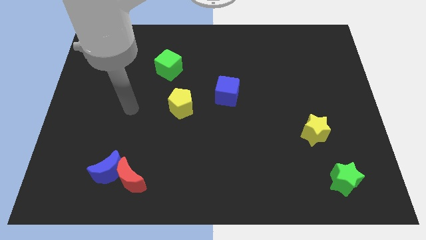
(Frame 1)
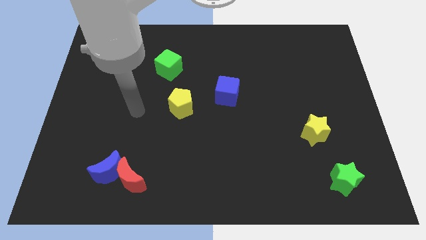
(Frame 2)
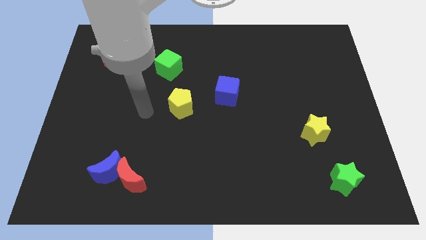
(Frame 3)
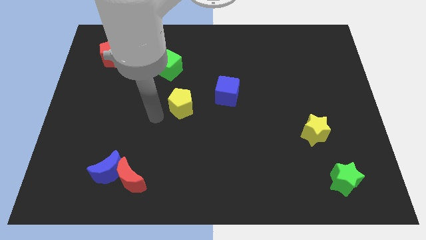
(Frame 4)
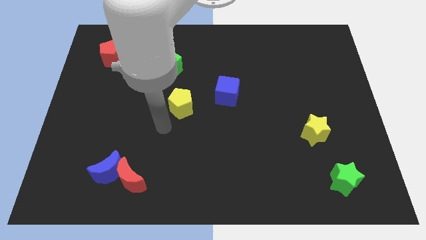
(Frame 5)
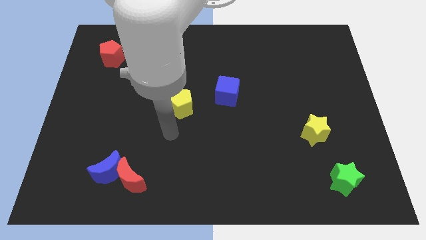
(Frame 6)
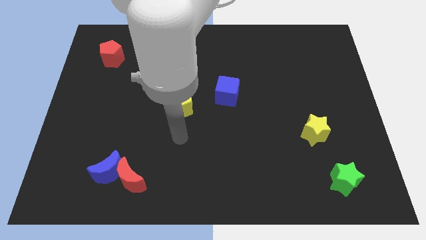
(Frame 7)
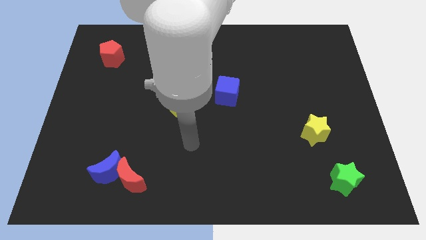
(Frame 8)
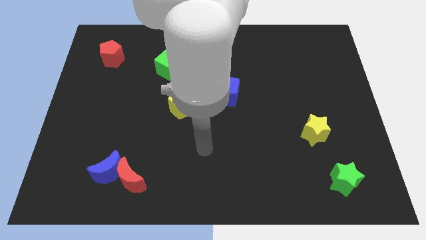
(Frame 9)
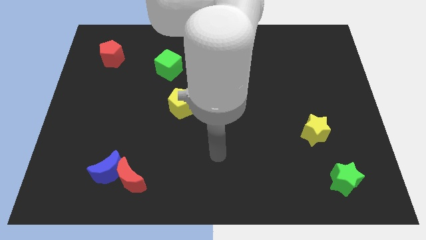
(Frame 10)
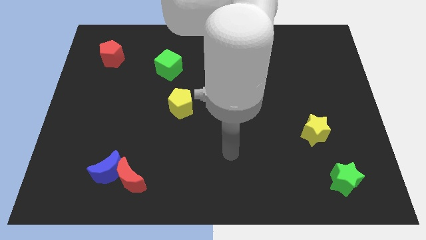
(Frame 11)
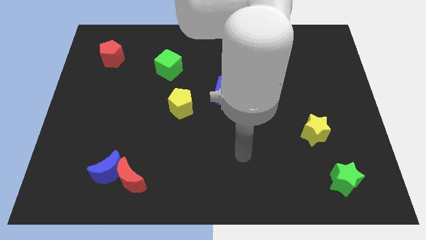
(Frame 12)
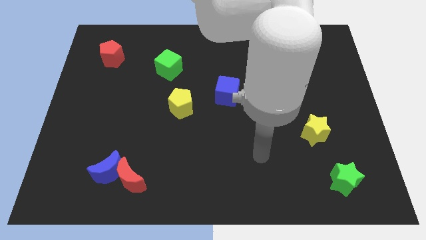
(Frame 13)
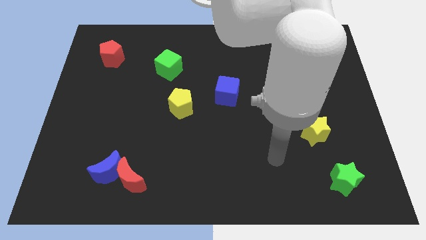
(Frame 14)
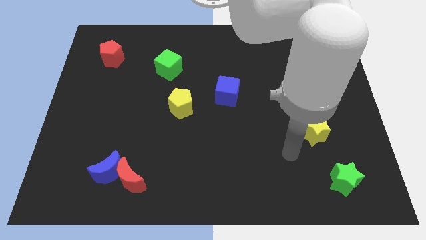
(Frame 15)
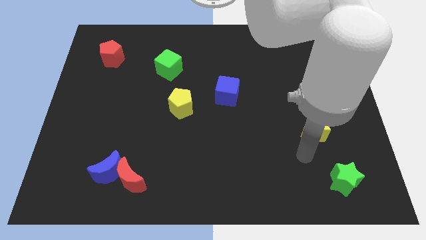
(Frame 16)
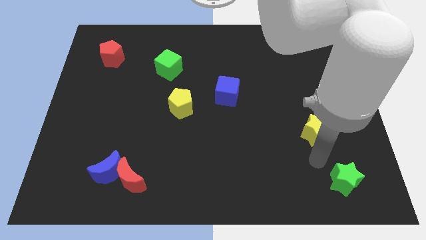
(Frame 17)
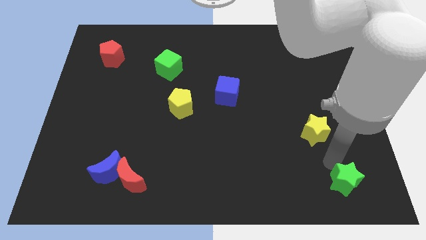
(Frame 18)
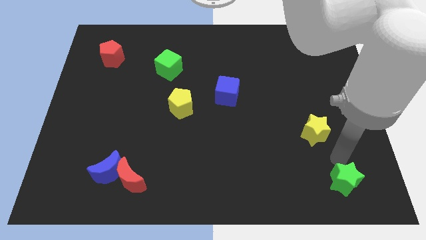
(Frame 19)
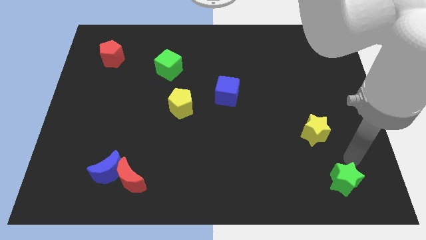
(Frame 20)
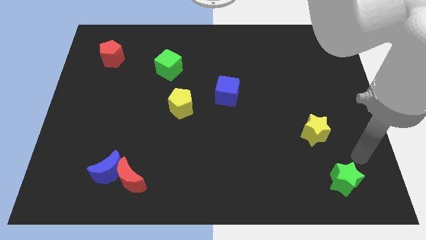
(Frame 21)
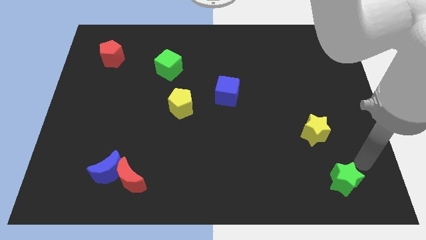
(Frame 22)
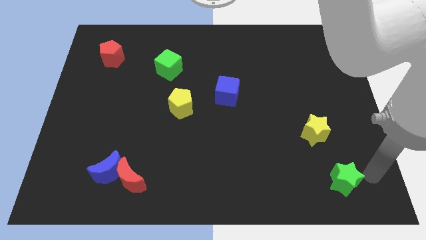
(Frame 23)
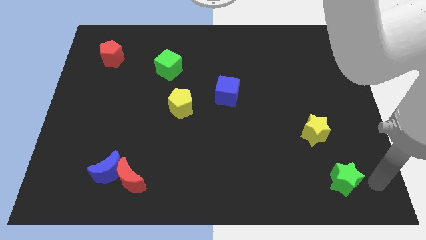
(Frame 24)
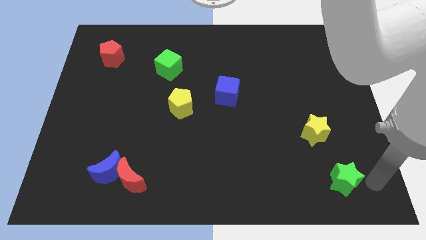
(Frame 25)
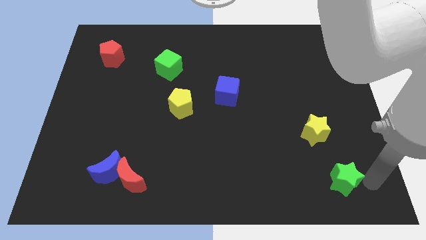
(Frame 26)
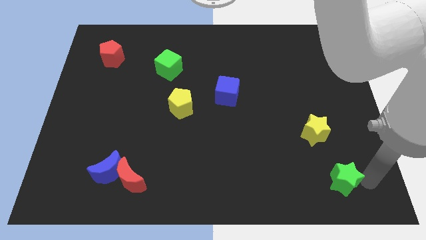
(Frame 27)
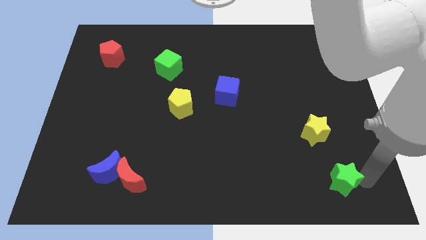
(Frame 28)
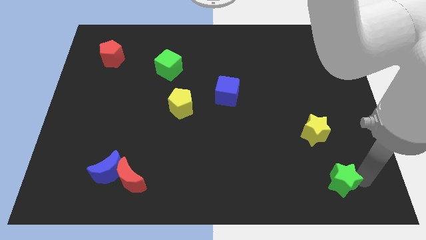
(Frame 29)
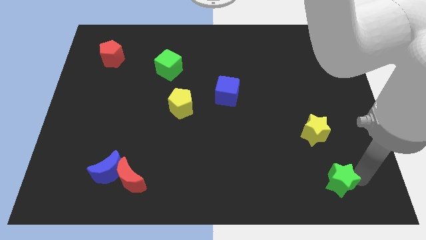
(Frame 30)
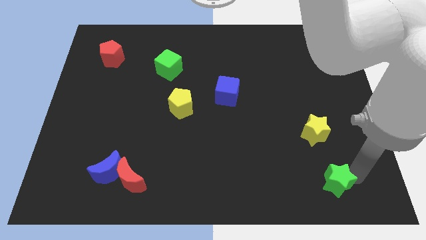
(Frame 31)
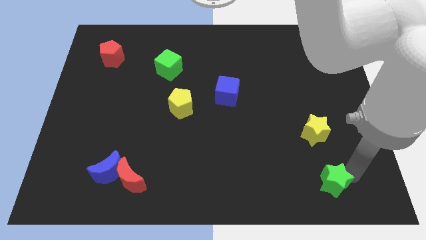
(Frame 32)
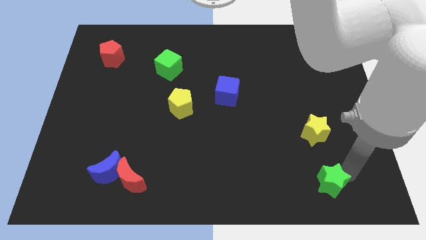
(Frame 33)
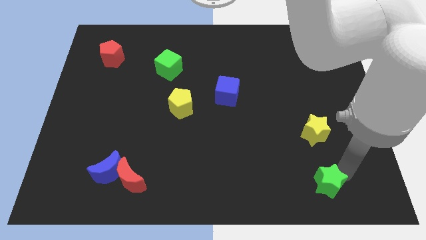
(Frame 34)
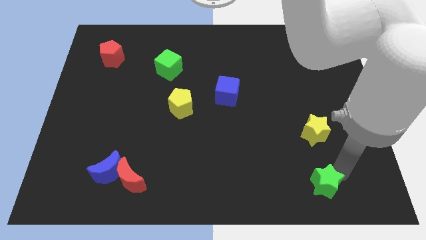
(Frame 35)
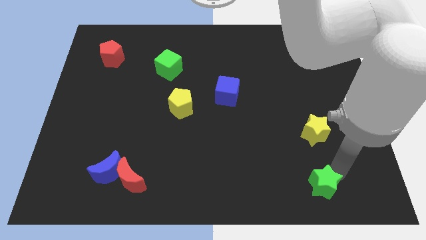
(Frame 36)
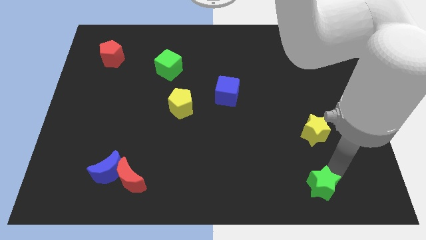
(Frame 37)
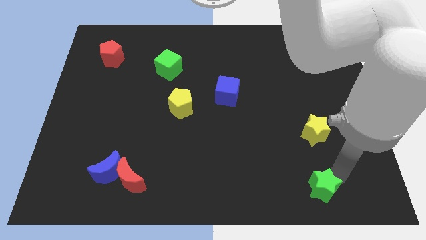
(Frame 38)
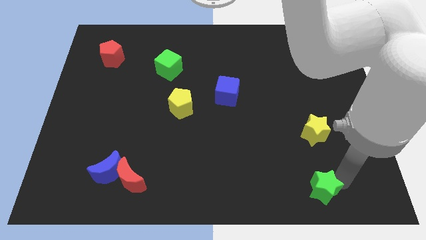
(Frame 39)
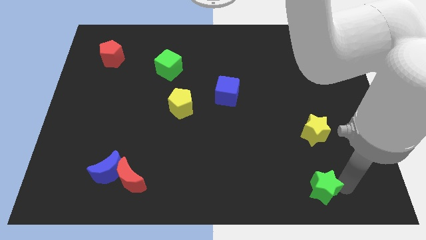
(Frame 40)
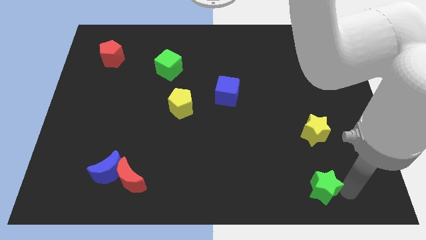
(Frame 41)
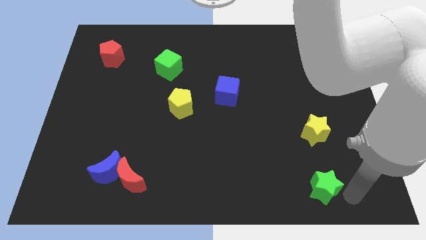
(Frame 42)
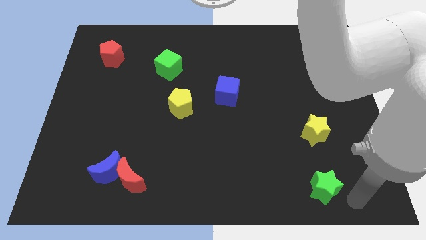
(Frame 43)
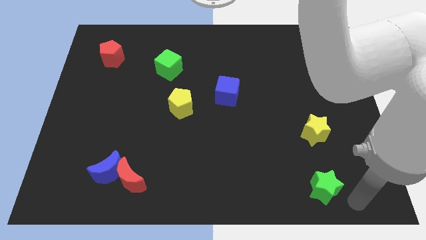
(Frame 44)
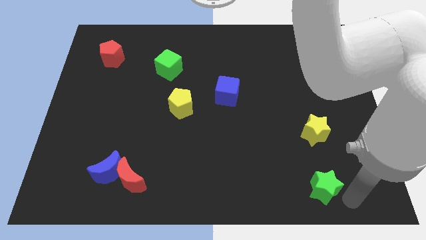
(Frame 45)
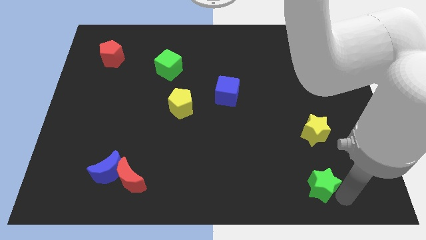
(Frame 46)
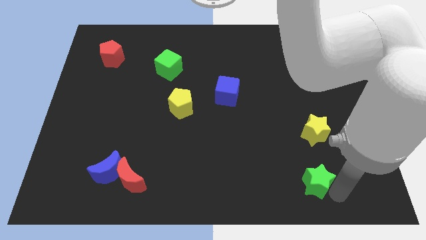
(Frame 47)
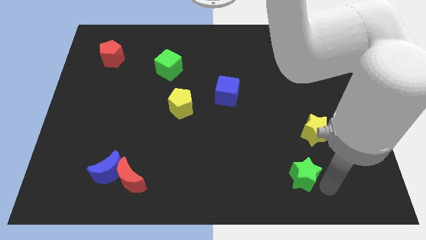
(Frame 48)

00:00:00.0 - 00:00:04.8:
slightly slide the green star to the left

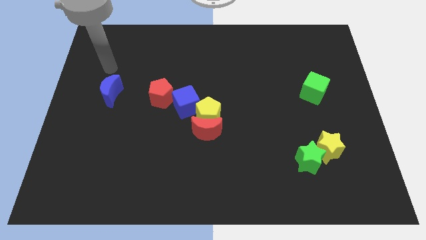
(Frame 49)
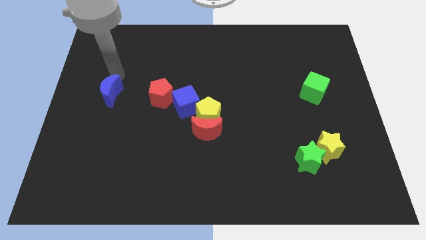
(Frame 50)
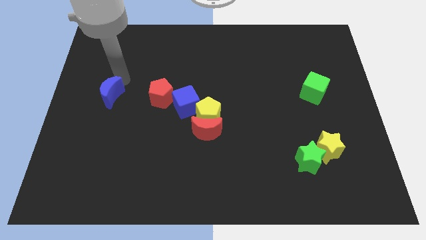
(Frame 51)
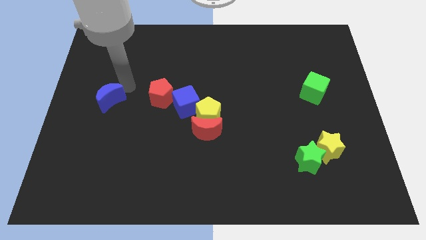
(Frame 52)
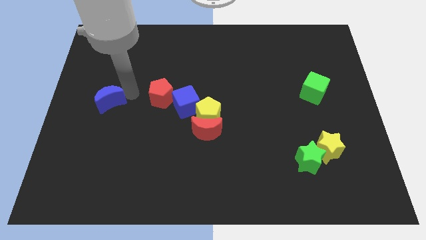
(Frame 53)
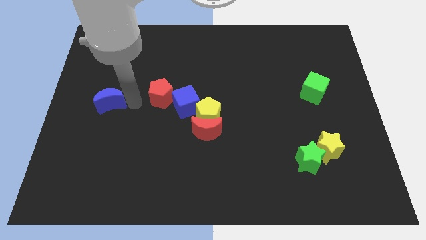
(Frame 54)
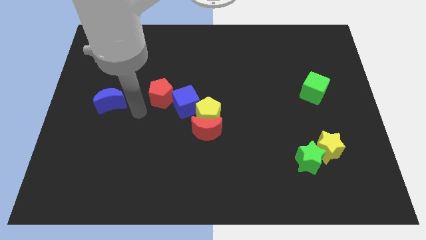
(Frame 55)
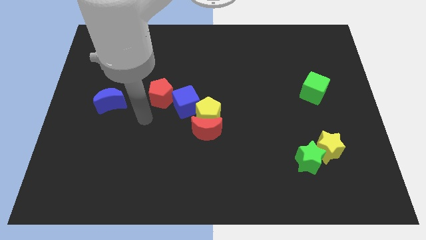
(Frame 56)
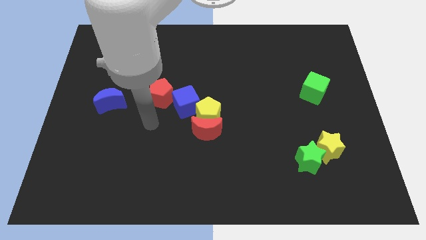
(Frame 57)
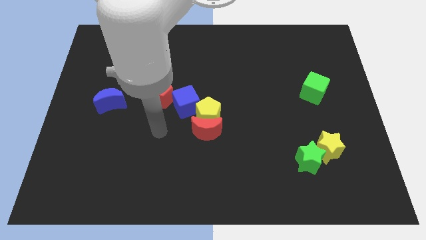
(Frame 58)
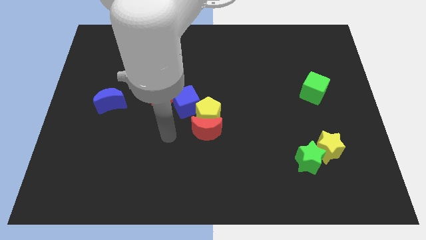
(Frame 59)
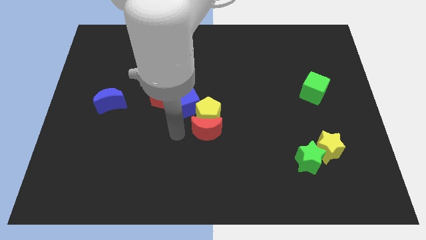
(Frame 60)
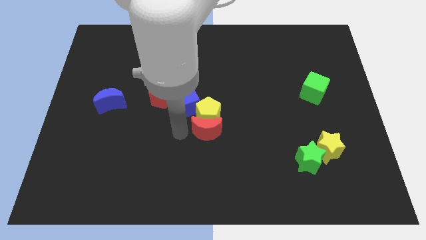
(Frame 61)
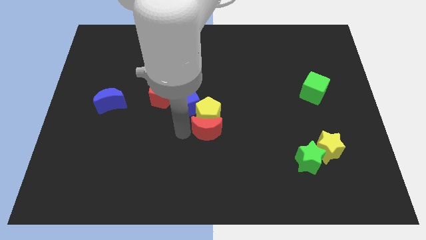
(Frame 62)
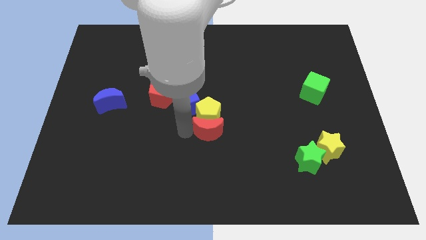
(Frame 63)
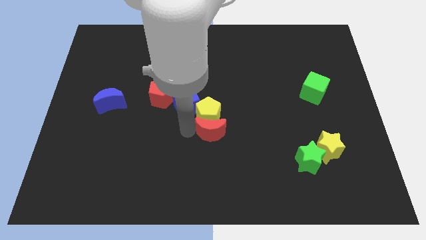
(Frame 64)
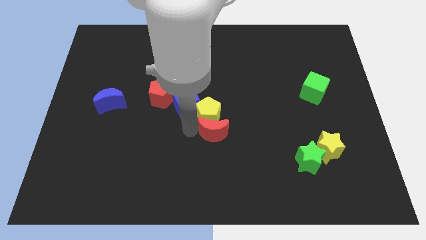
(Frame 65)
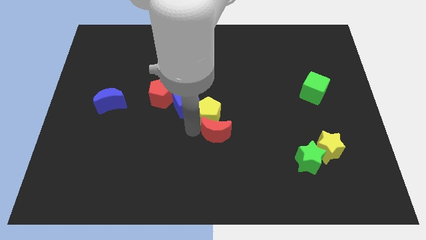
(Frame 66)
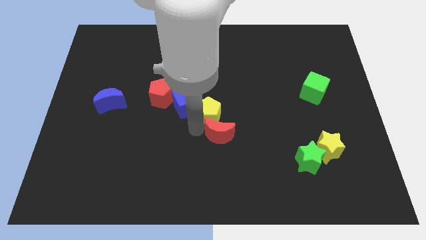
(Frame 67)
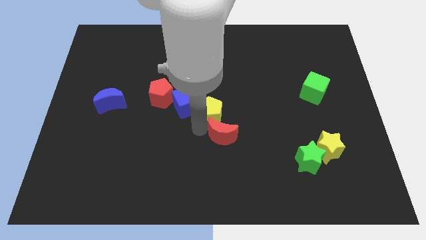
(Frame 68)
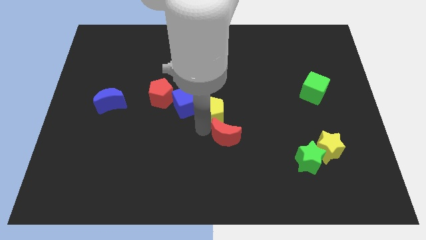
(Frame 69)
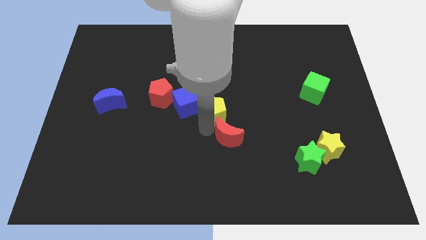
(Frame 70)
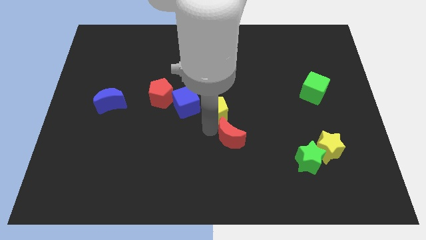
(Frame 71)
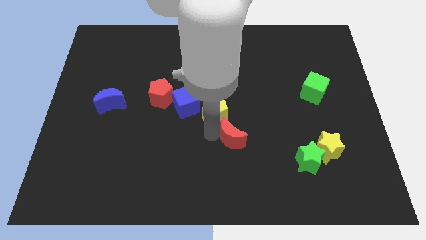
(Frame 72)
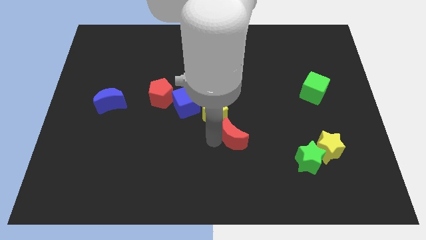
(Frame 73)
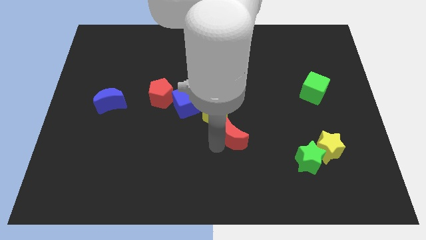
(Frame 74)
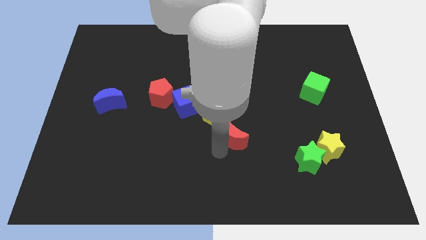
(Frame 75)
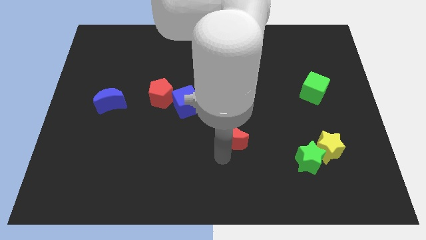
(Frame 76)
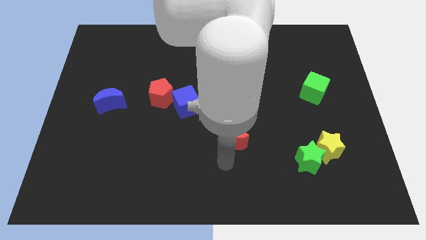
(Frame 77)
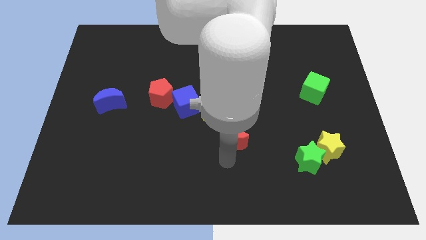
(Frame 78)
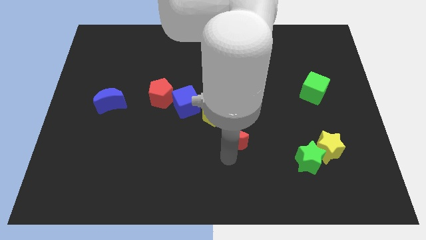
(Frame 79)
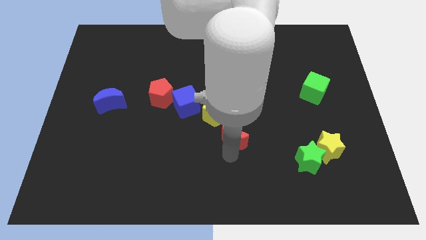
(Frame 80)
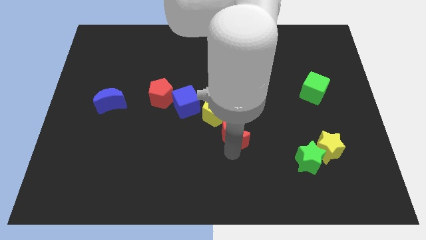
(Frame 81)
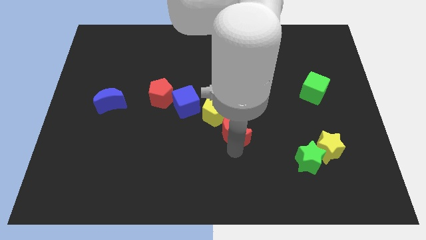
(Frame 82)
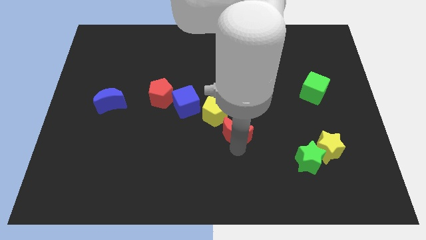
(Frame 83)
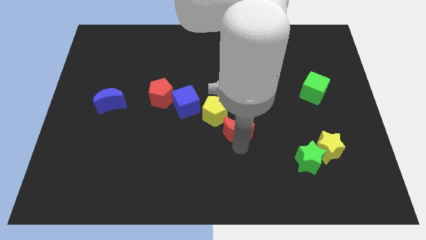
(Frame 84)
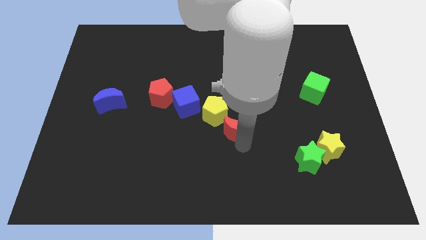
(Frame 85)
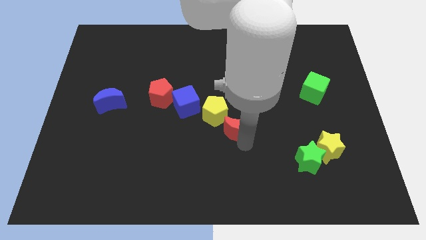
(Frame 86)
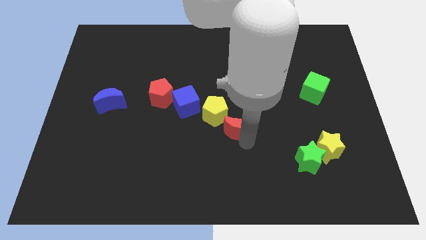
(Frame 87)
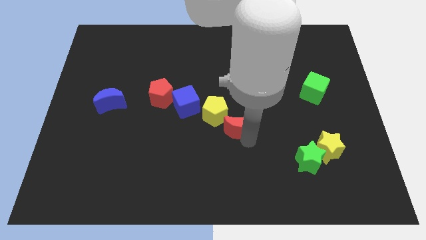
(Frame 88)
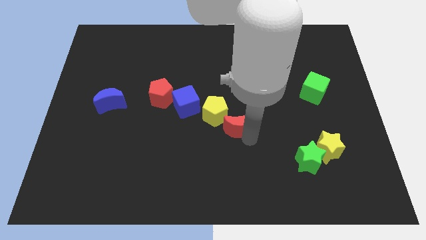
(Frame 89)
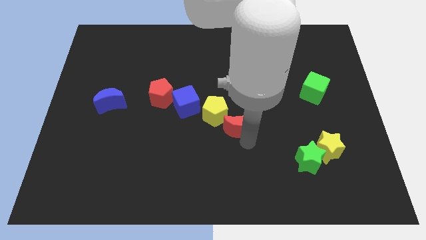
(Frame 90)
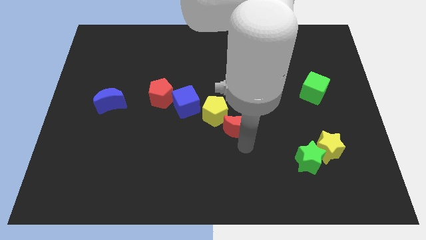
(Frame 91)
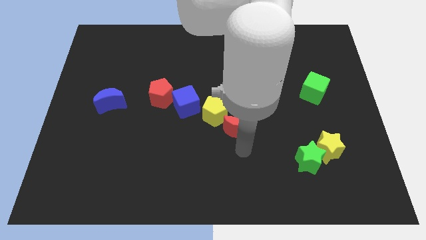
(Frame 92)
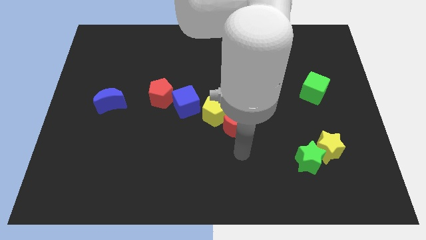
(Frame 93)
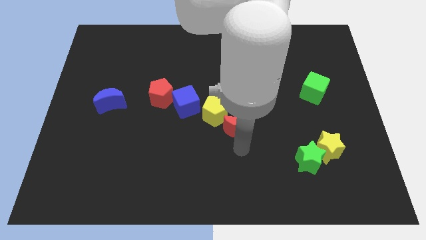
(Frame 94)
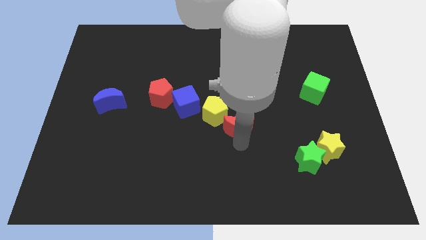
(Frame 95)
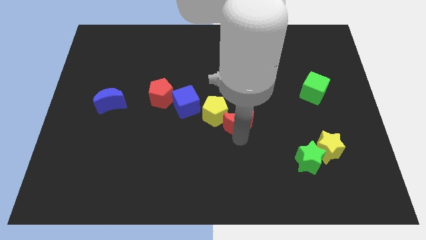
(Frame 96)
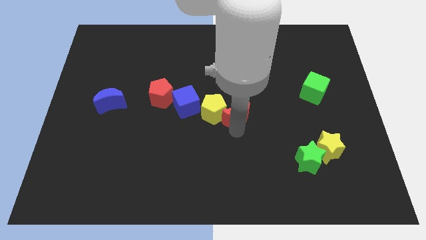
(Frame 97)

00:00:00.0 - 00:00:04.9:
slightly push the red moon up and then to the right
